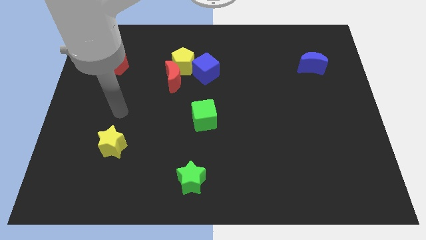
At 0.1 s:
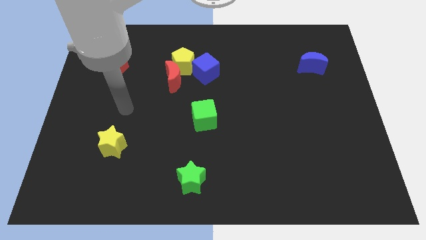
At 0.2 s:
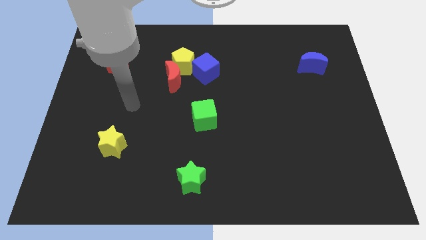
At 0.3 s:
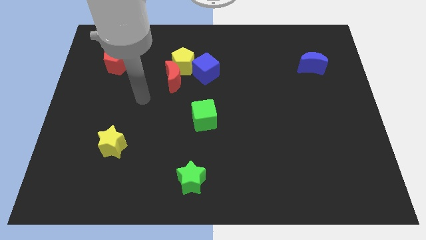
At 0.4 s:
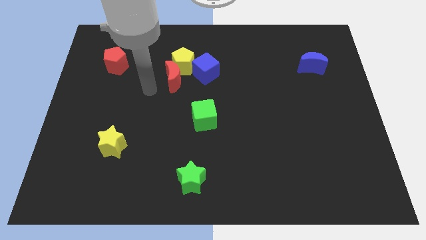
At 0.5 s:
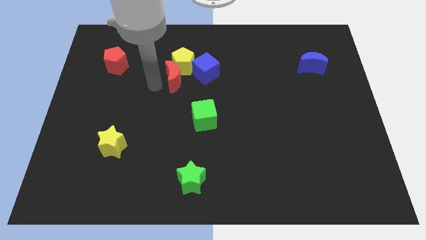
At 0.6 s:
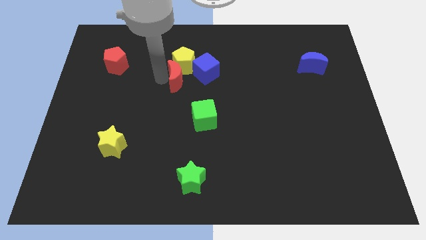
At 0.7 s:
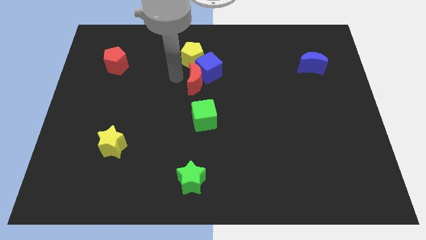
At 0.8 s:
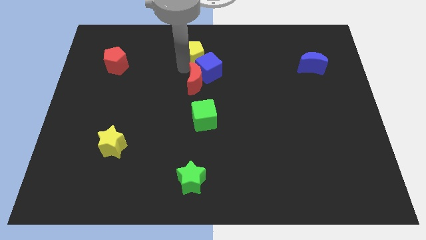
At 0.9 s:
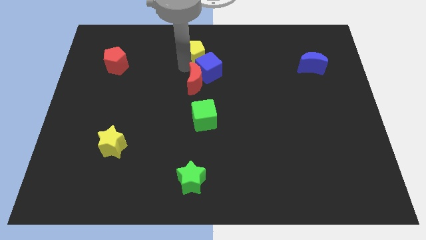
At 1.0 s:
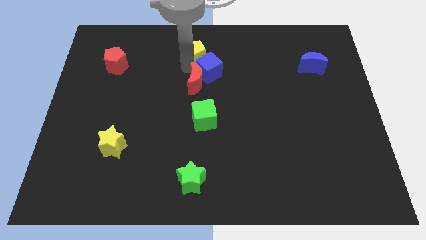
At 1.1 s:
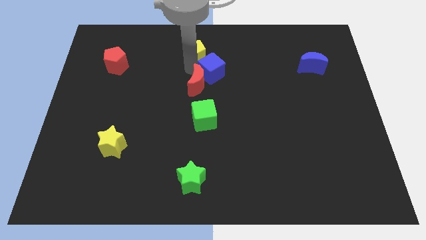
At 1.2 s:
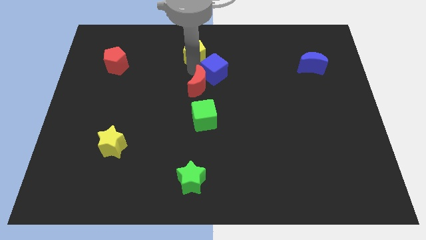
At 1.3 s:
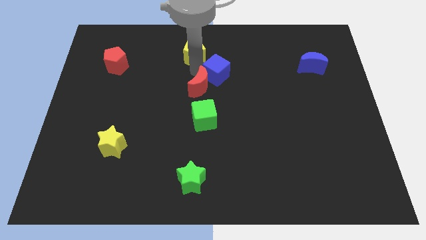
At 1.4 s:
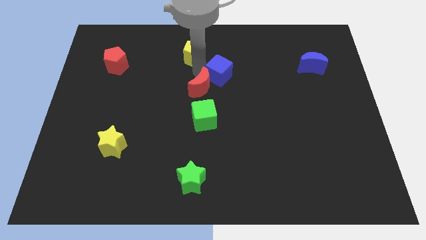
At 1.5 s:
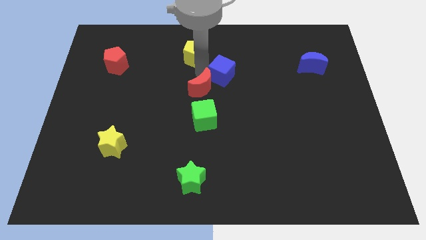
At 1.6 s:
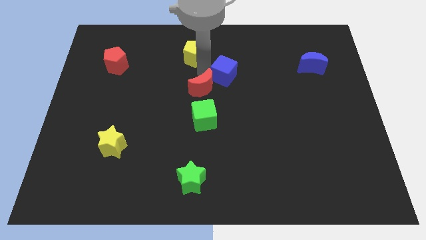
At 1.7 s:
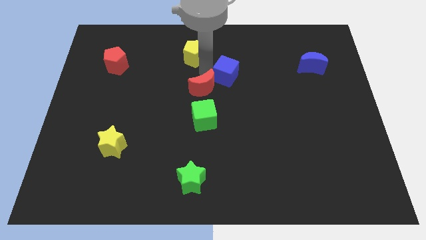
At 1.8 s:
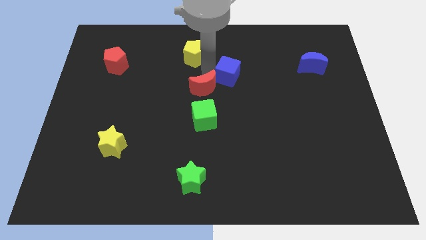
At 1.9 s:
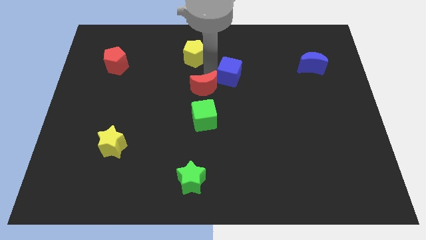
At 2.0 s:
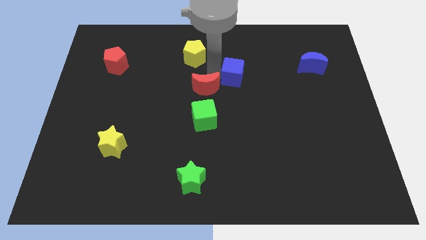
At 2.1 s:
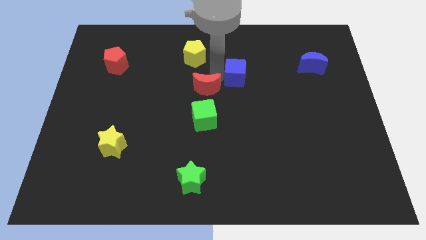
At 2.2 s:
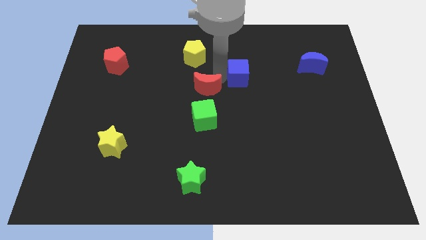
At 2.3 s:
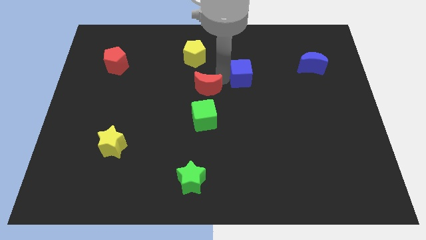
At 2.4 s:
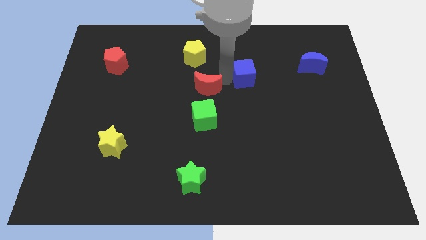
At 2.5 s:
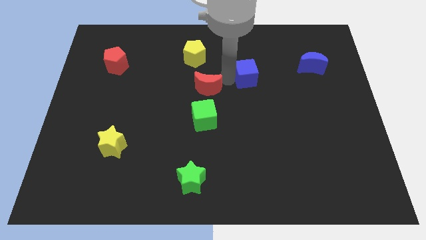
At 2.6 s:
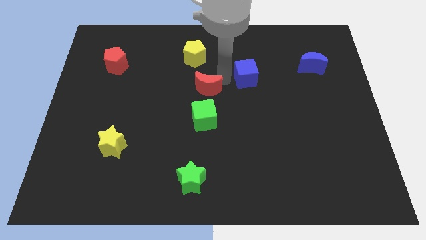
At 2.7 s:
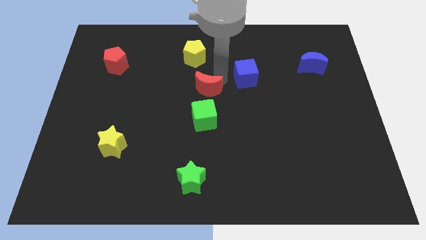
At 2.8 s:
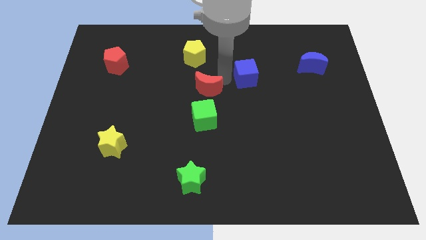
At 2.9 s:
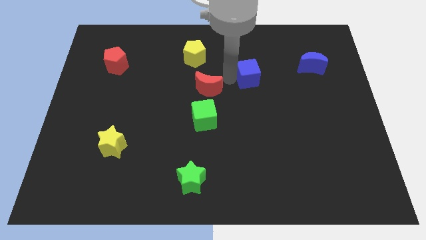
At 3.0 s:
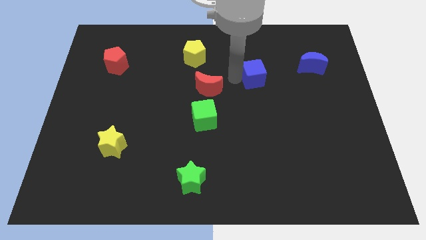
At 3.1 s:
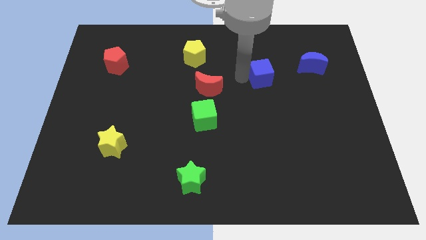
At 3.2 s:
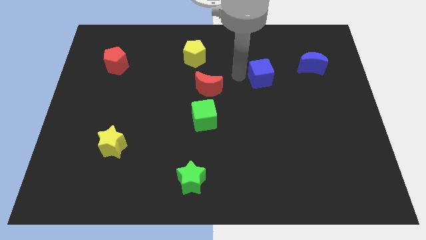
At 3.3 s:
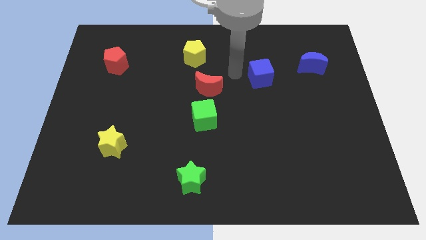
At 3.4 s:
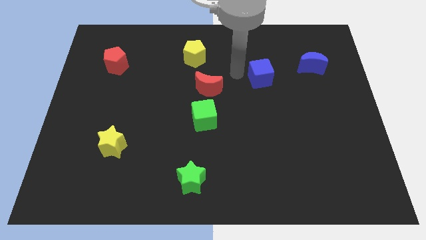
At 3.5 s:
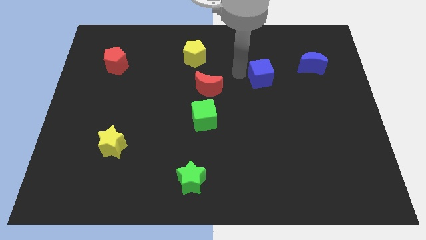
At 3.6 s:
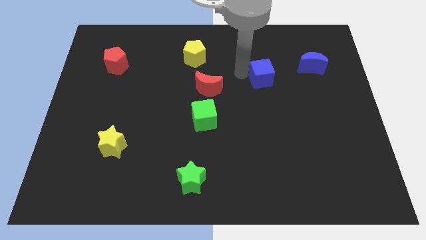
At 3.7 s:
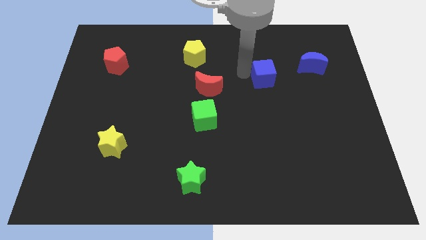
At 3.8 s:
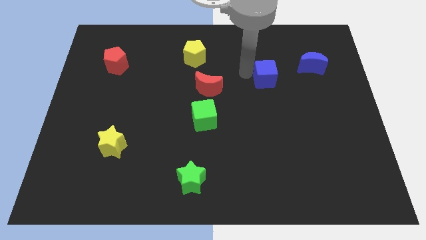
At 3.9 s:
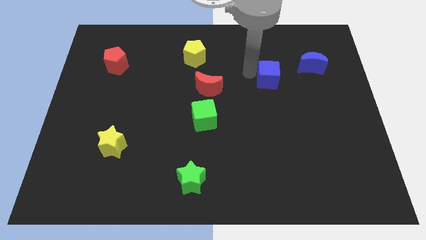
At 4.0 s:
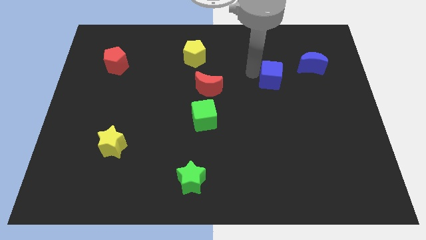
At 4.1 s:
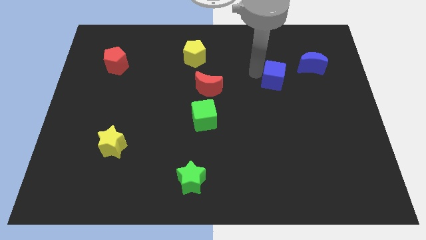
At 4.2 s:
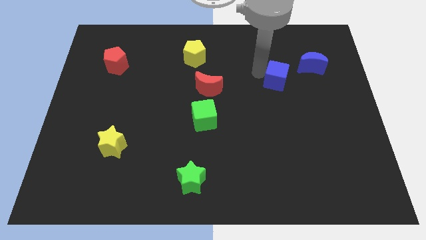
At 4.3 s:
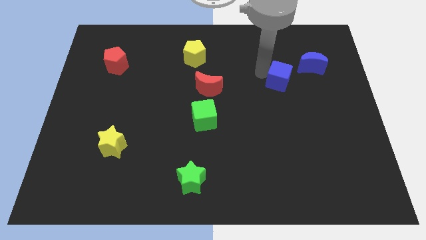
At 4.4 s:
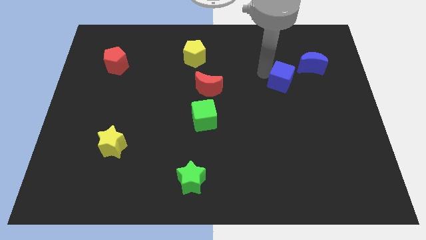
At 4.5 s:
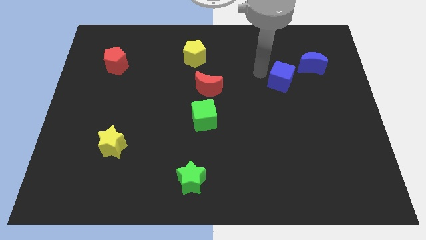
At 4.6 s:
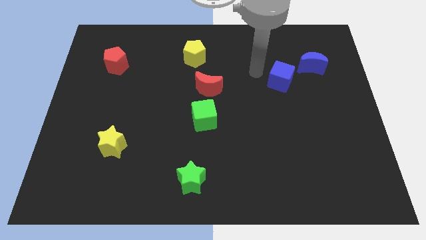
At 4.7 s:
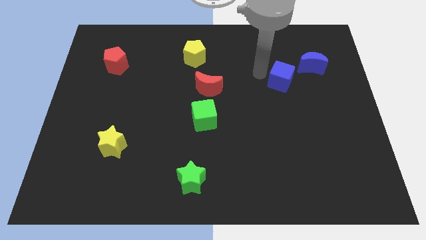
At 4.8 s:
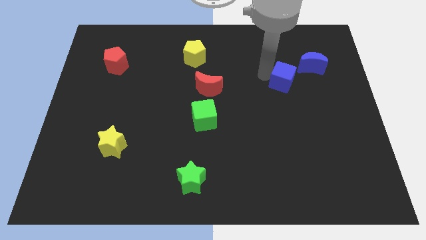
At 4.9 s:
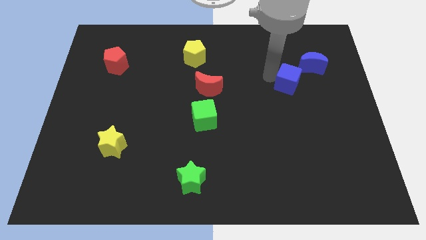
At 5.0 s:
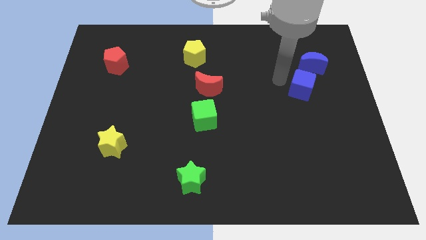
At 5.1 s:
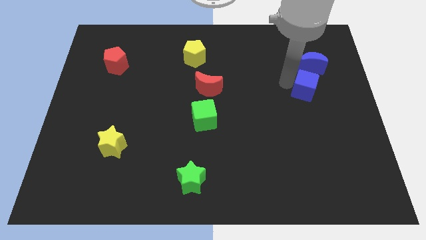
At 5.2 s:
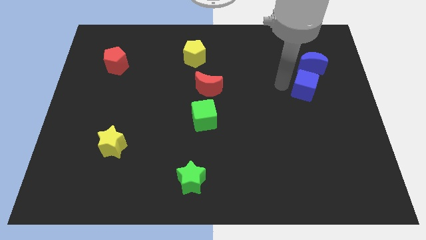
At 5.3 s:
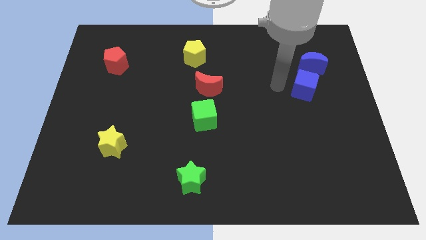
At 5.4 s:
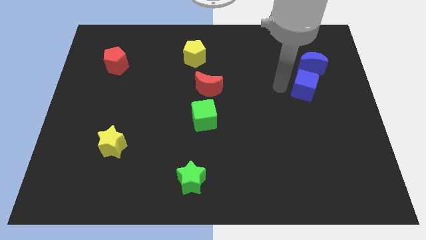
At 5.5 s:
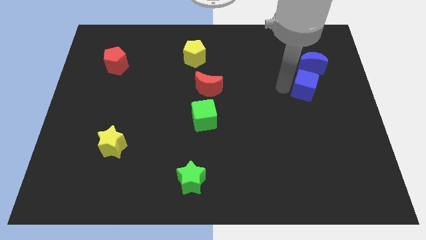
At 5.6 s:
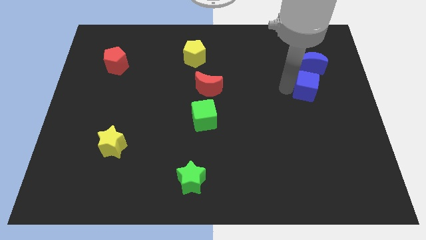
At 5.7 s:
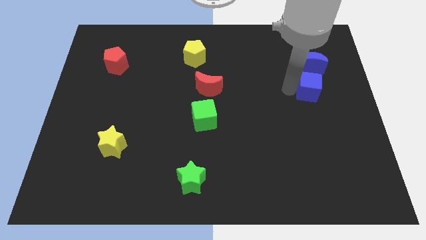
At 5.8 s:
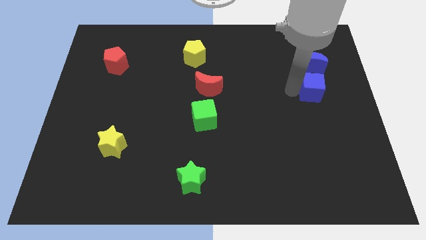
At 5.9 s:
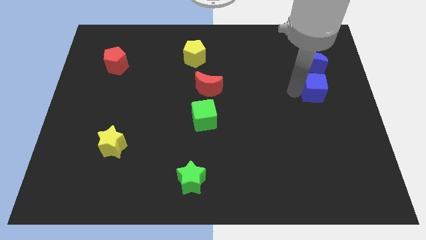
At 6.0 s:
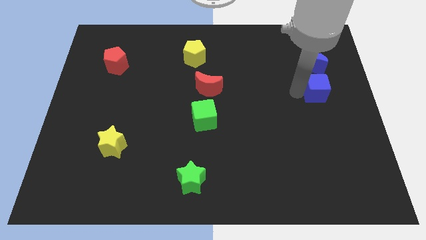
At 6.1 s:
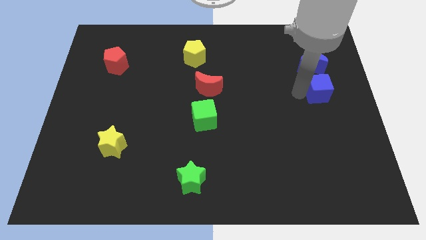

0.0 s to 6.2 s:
move the blue cube to the right side

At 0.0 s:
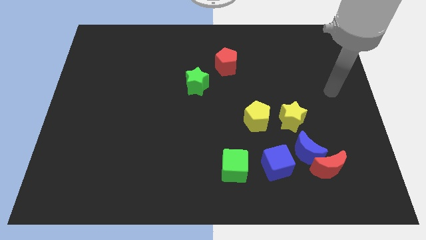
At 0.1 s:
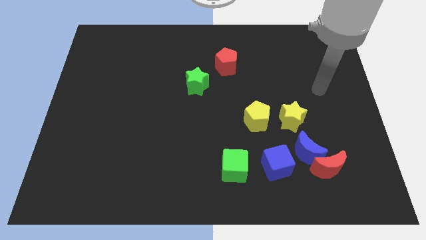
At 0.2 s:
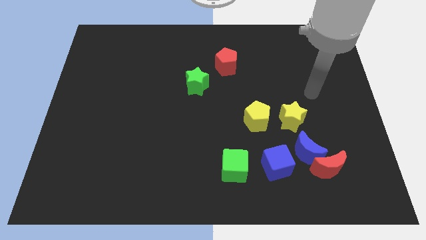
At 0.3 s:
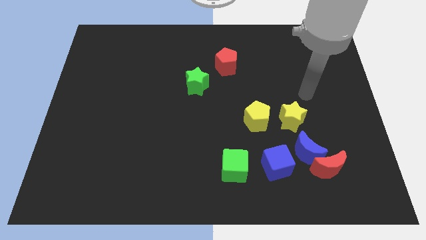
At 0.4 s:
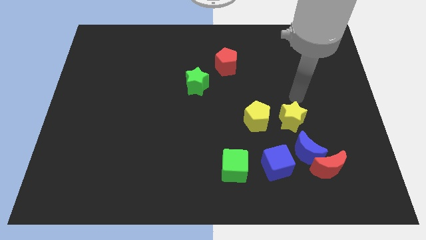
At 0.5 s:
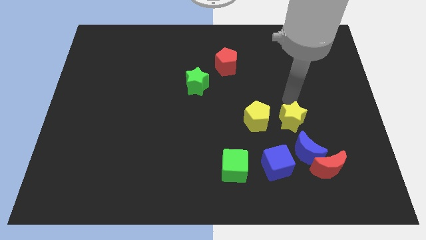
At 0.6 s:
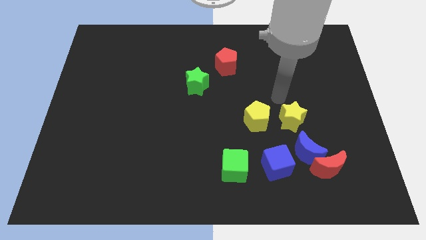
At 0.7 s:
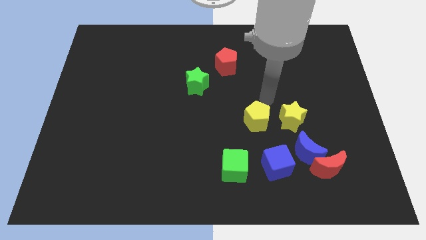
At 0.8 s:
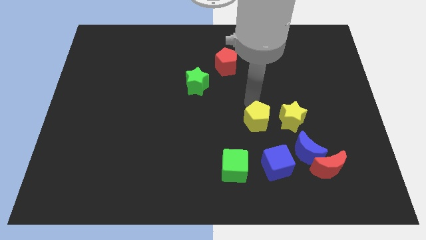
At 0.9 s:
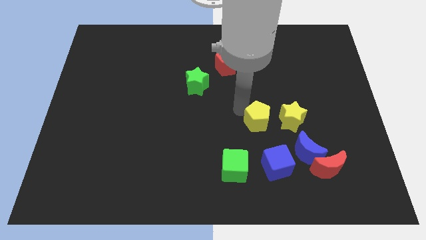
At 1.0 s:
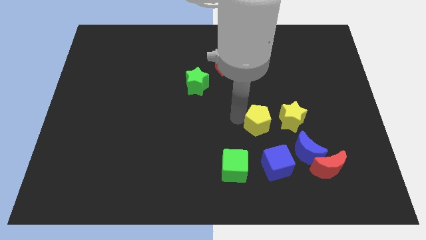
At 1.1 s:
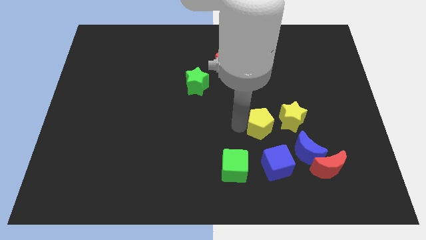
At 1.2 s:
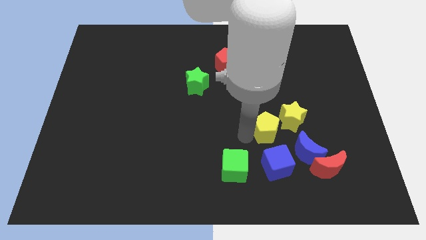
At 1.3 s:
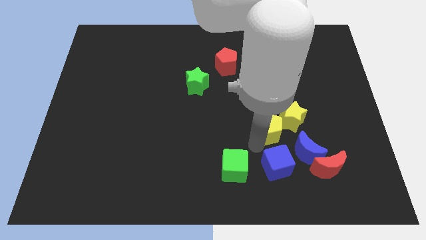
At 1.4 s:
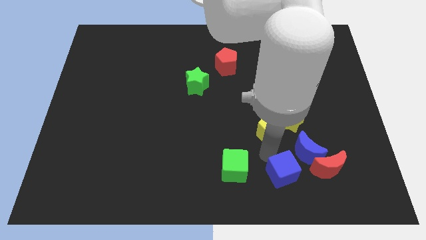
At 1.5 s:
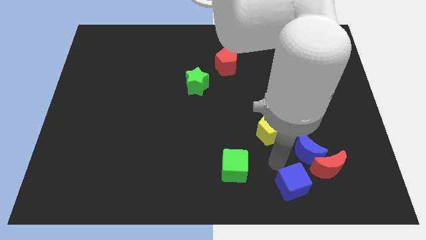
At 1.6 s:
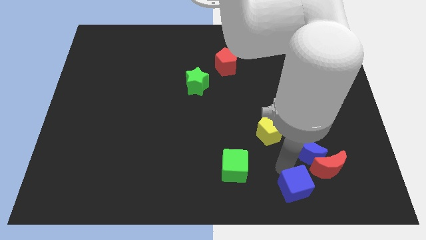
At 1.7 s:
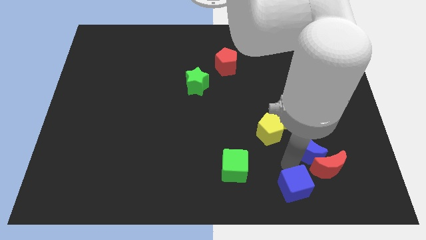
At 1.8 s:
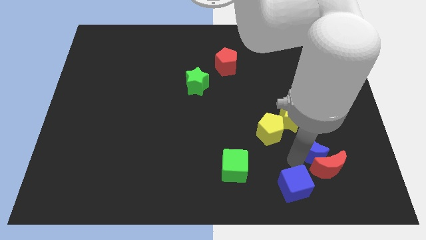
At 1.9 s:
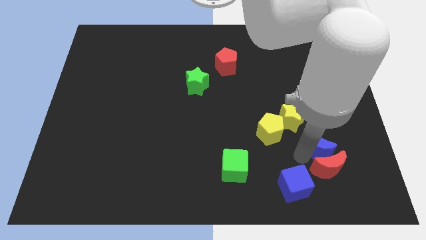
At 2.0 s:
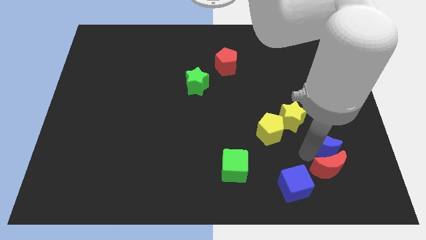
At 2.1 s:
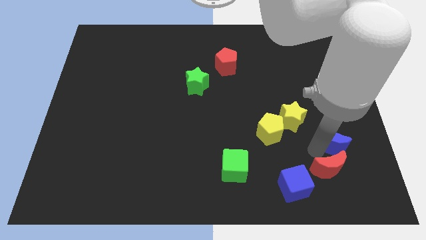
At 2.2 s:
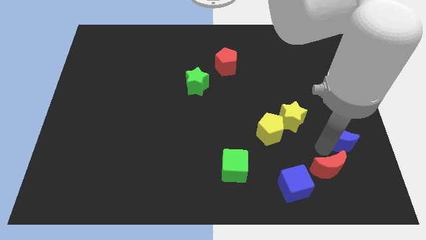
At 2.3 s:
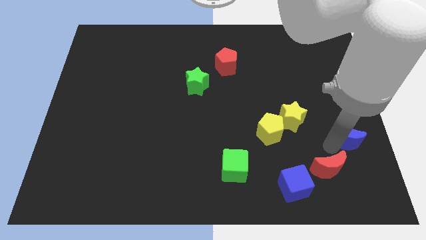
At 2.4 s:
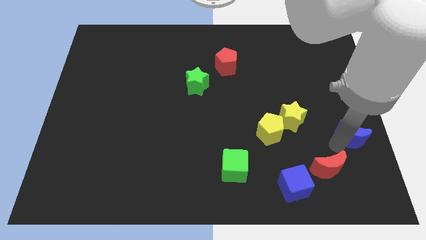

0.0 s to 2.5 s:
slide the blue moon to the right side of the board
